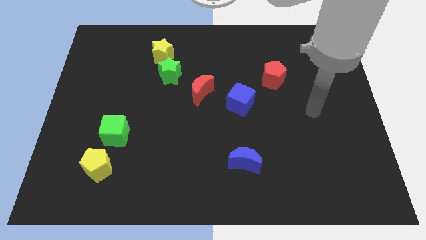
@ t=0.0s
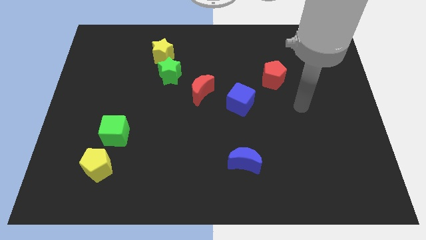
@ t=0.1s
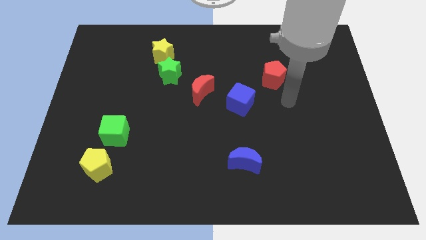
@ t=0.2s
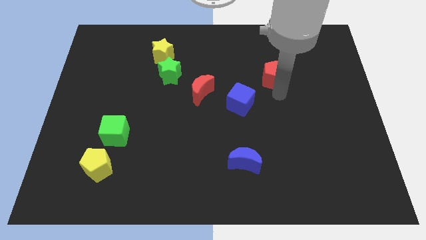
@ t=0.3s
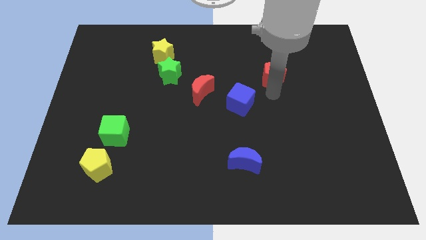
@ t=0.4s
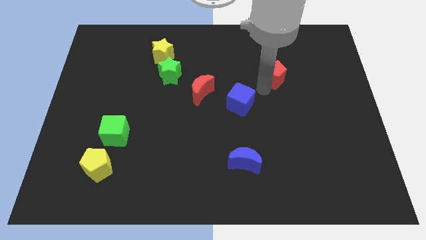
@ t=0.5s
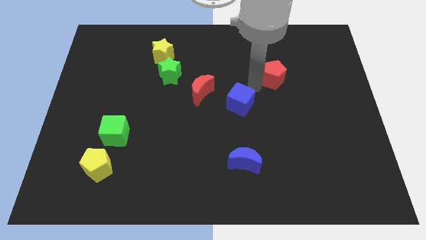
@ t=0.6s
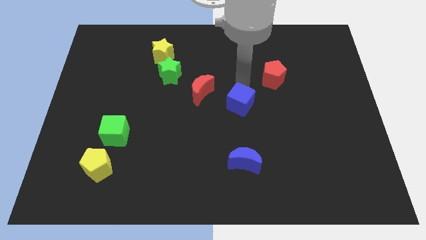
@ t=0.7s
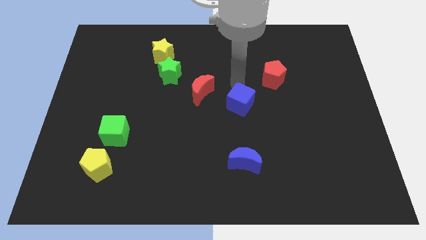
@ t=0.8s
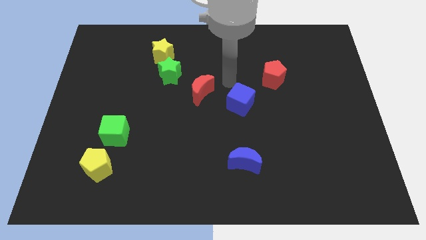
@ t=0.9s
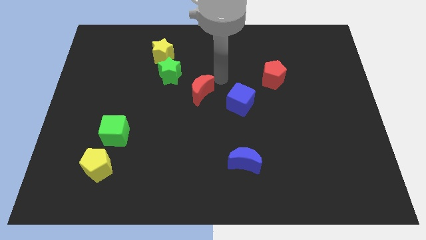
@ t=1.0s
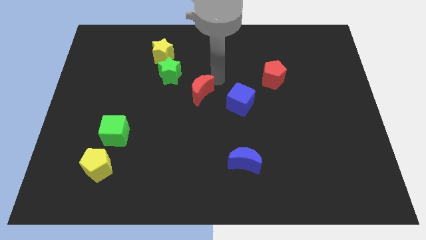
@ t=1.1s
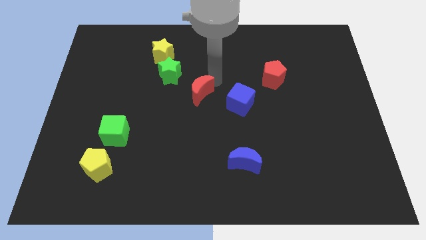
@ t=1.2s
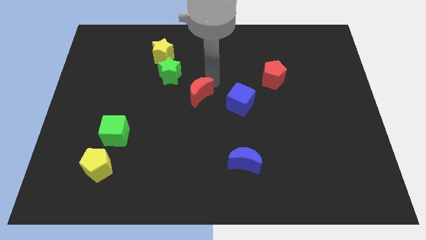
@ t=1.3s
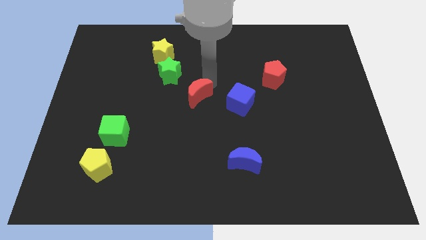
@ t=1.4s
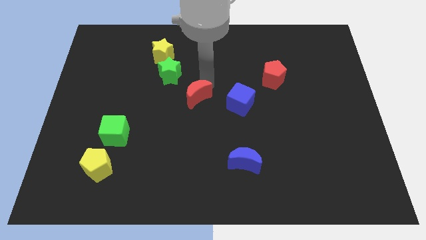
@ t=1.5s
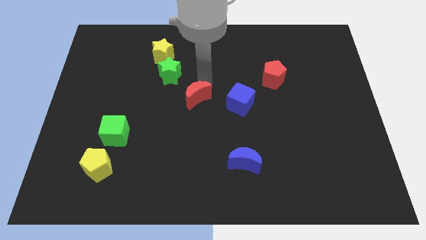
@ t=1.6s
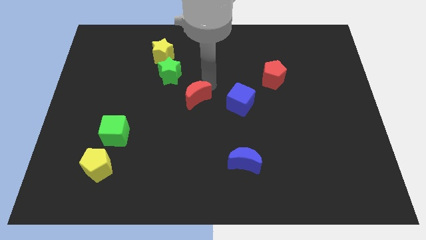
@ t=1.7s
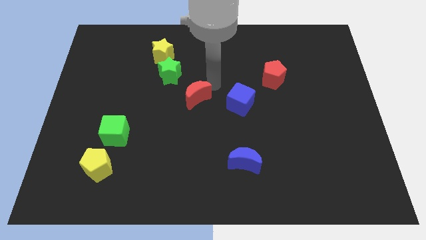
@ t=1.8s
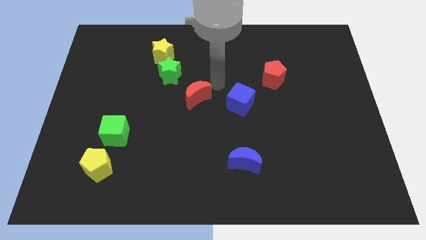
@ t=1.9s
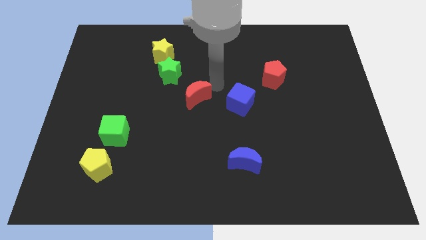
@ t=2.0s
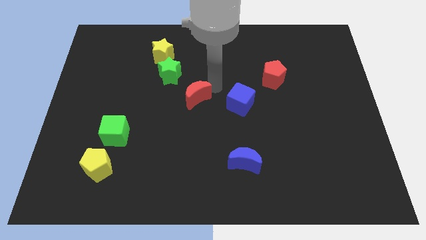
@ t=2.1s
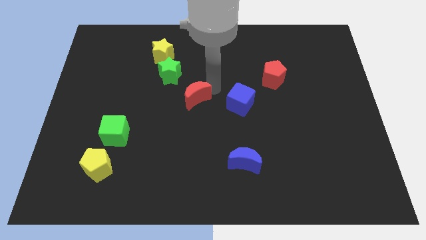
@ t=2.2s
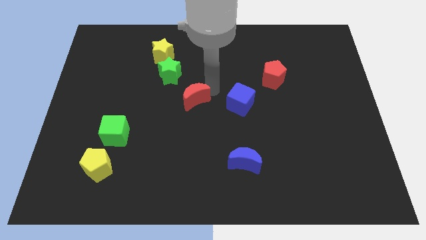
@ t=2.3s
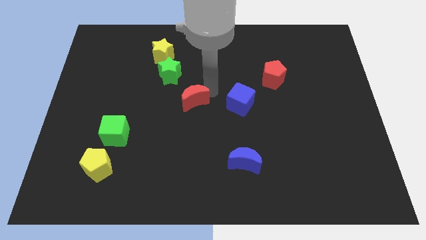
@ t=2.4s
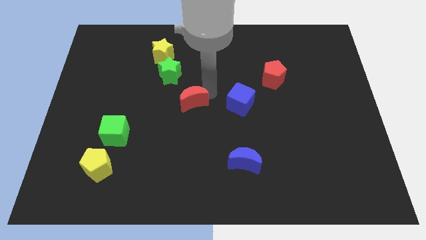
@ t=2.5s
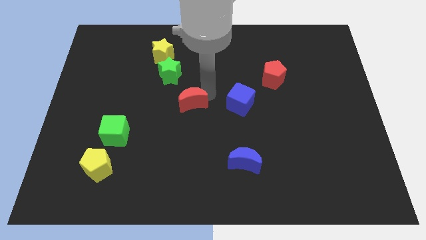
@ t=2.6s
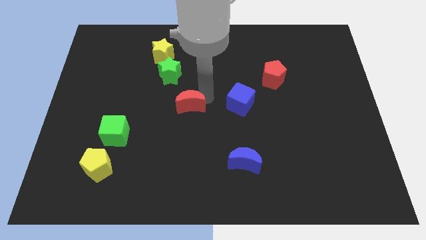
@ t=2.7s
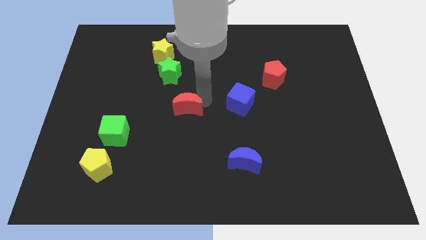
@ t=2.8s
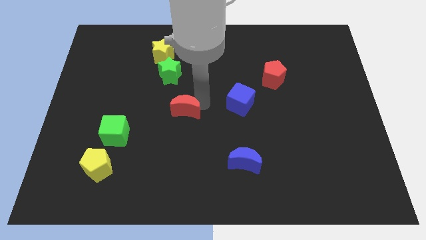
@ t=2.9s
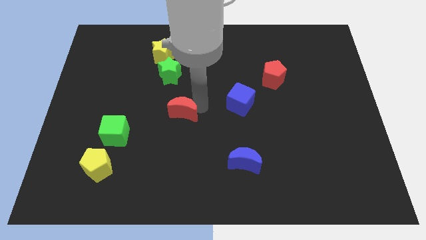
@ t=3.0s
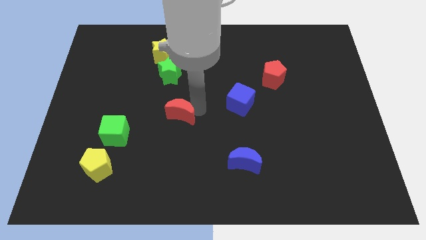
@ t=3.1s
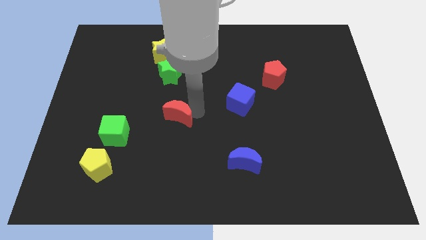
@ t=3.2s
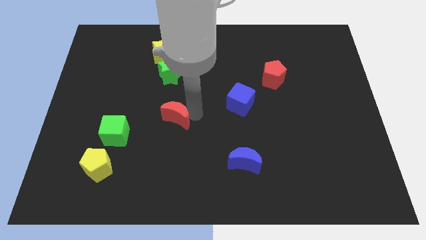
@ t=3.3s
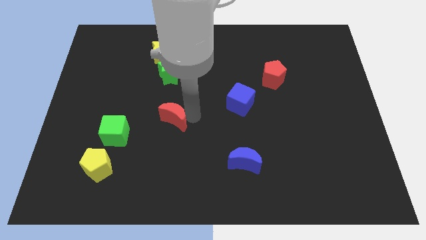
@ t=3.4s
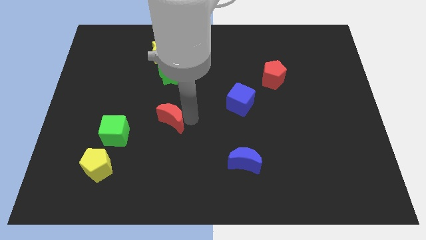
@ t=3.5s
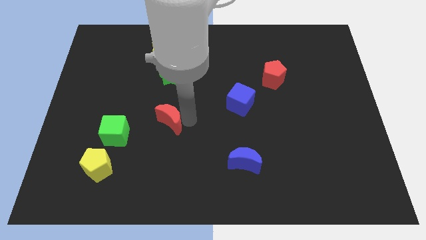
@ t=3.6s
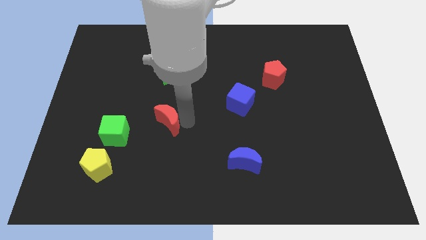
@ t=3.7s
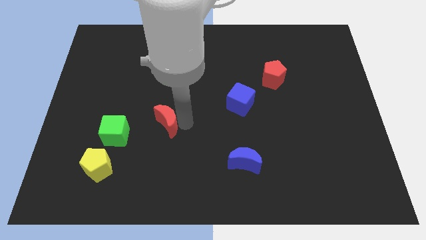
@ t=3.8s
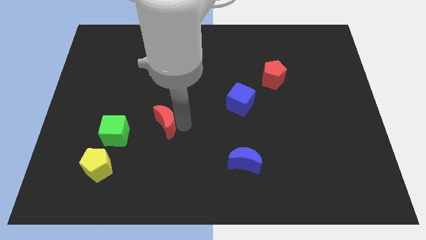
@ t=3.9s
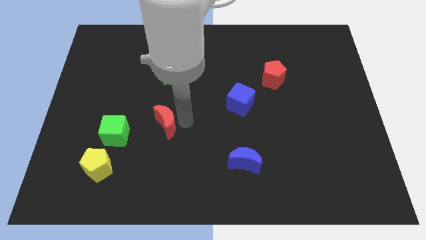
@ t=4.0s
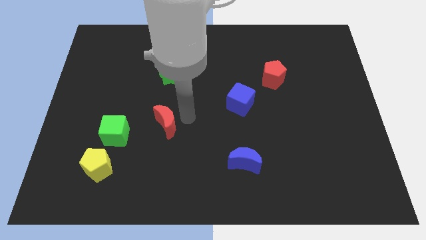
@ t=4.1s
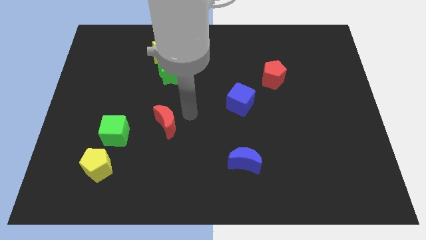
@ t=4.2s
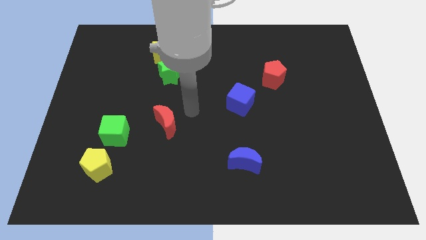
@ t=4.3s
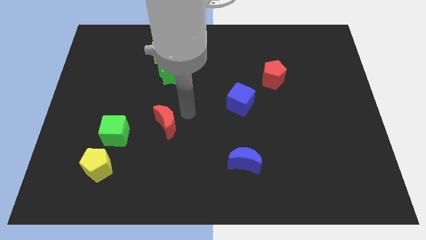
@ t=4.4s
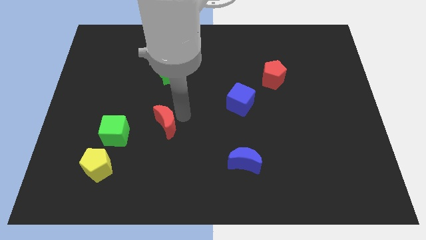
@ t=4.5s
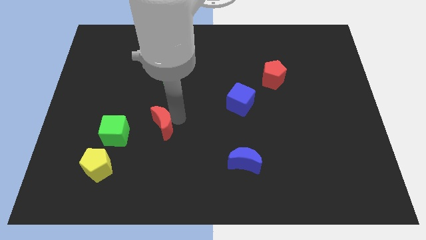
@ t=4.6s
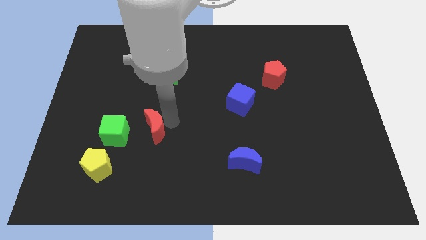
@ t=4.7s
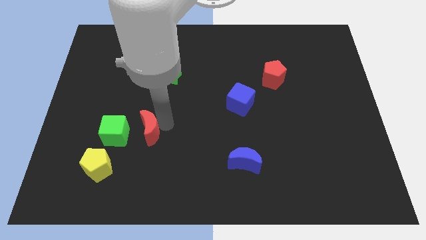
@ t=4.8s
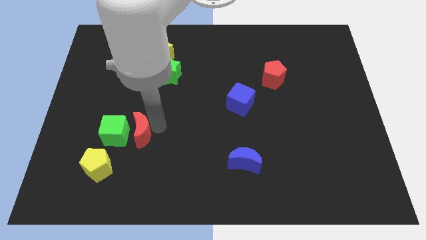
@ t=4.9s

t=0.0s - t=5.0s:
move the red moon to the top right of the yellow pentagon

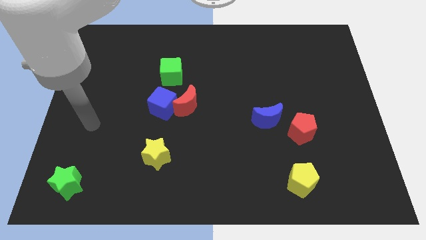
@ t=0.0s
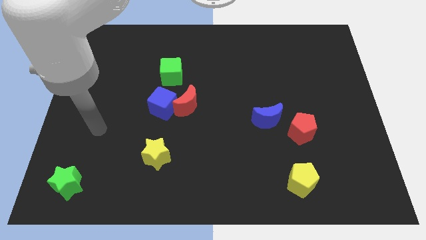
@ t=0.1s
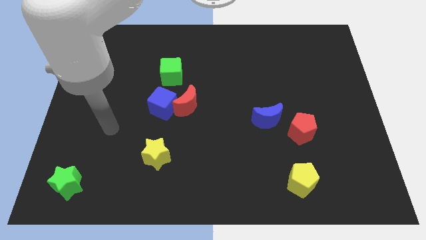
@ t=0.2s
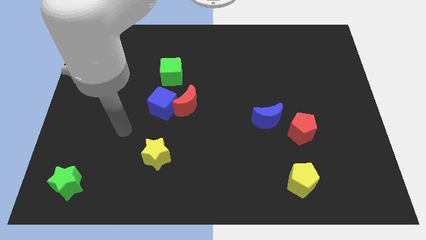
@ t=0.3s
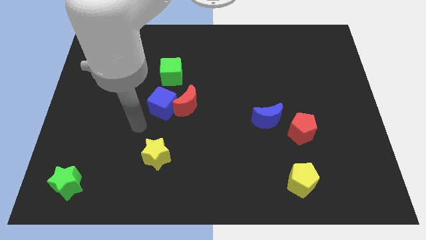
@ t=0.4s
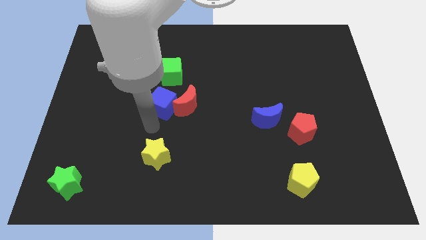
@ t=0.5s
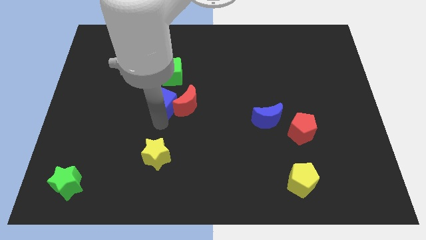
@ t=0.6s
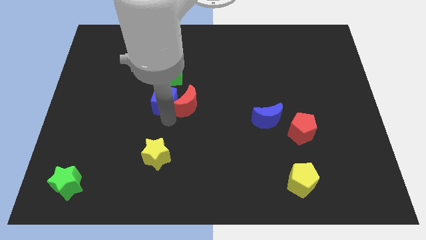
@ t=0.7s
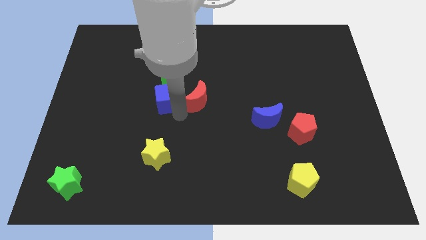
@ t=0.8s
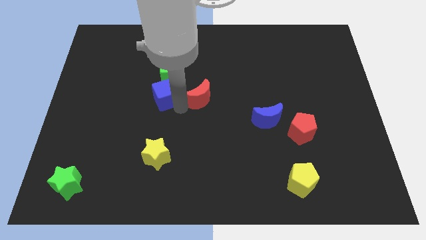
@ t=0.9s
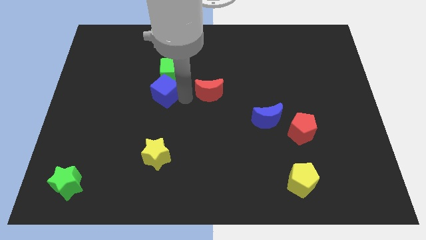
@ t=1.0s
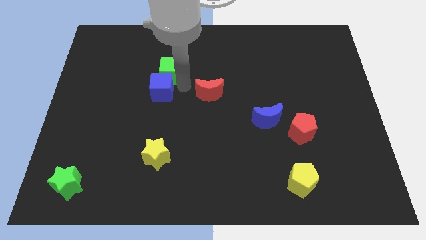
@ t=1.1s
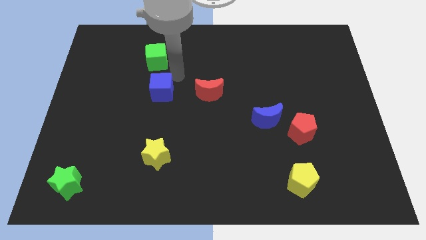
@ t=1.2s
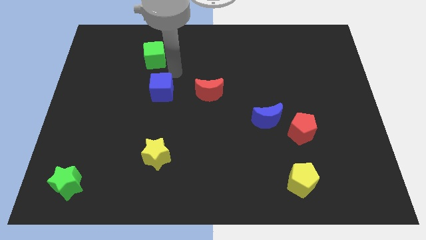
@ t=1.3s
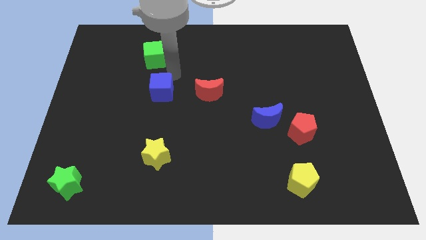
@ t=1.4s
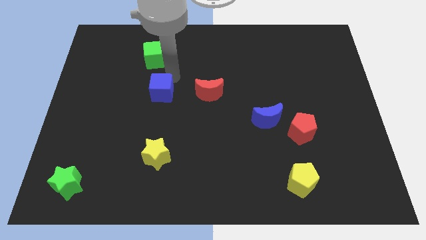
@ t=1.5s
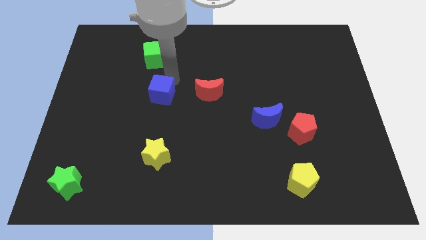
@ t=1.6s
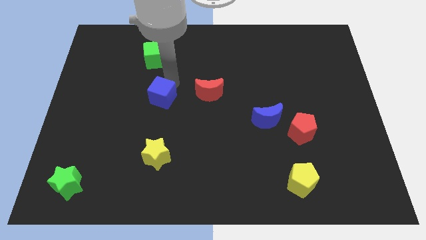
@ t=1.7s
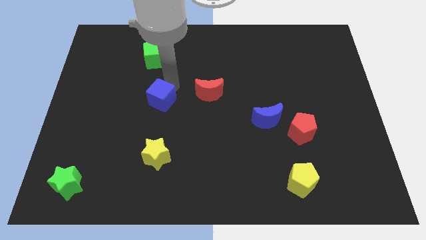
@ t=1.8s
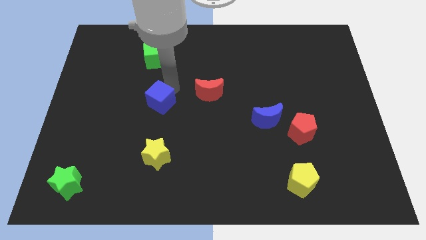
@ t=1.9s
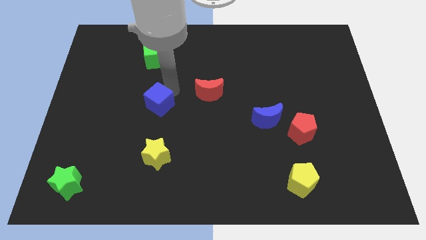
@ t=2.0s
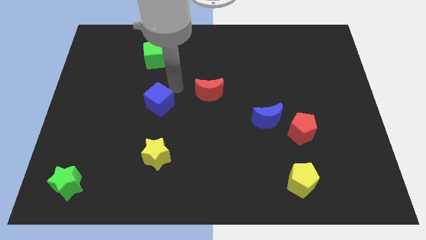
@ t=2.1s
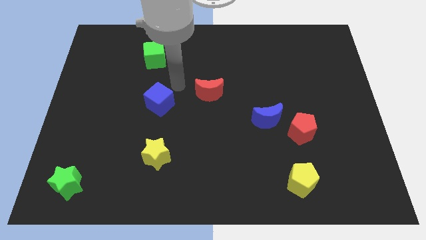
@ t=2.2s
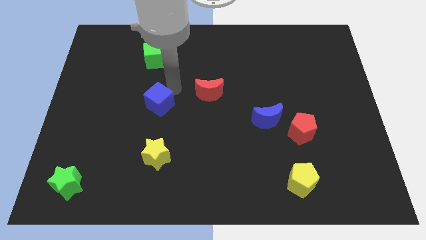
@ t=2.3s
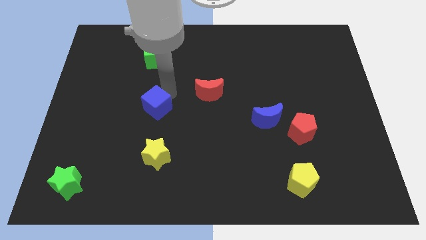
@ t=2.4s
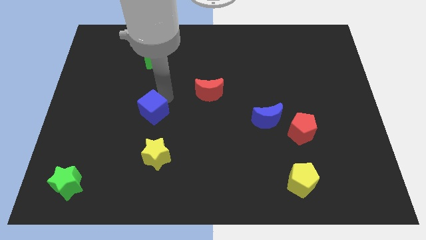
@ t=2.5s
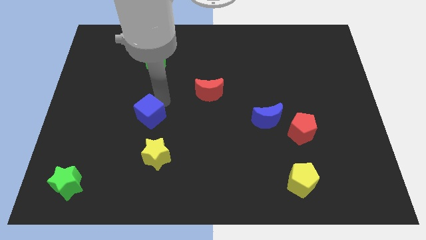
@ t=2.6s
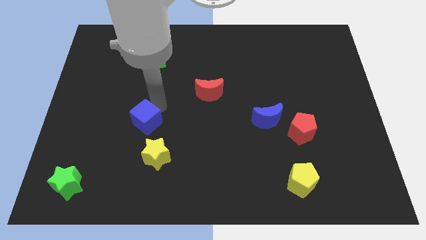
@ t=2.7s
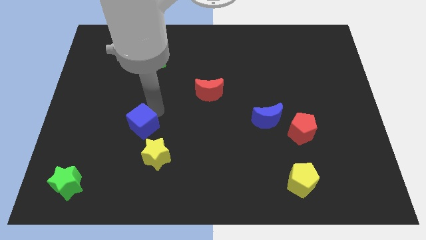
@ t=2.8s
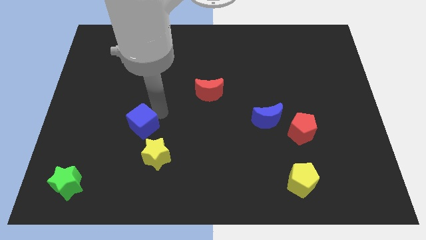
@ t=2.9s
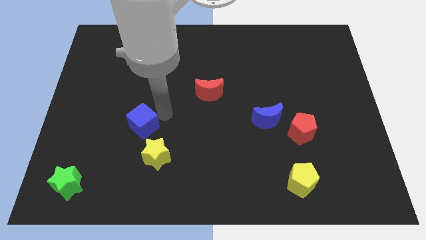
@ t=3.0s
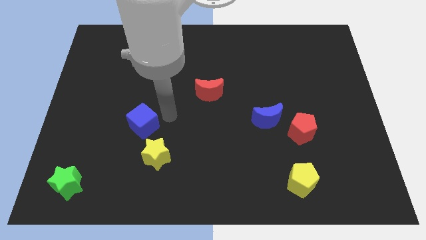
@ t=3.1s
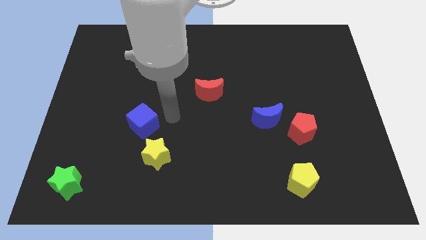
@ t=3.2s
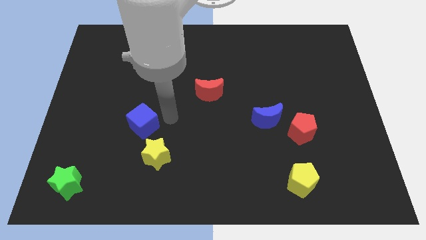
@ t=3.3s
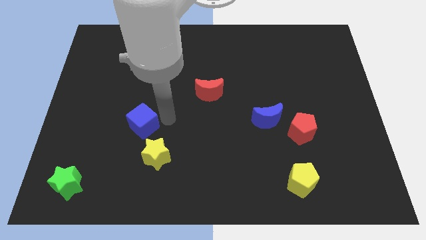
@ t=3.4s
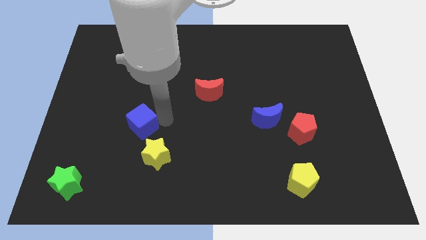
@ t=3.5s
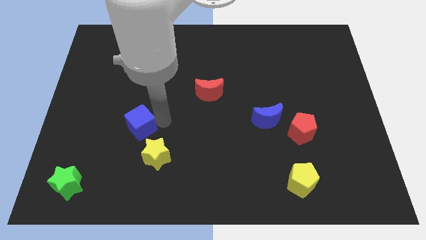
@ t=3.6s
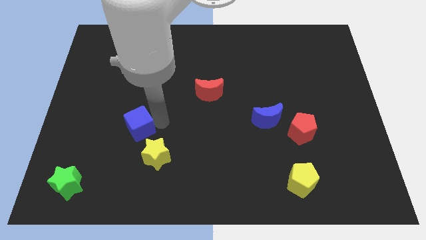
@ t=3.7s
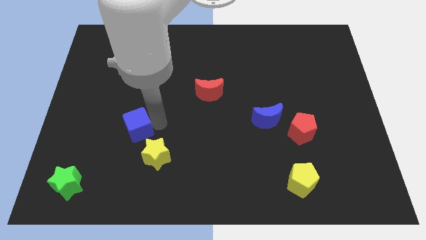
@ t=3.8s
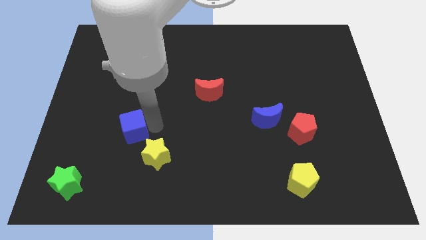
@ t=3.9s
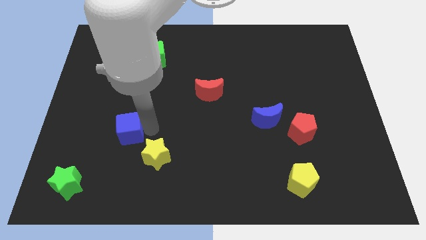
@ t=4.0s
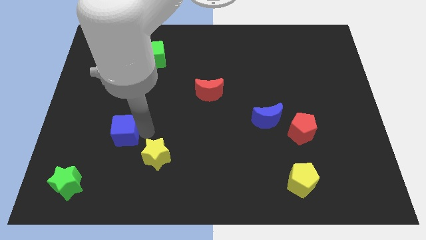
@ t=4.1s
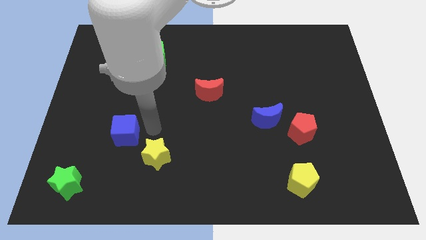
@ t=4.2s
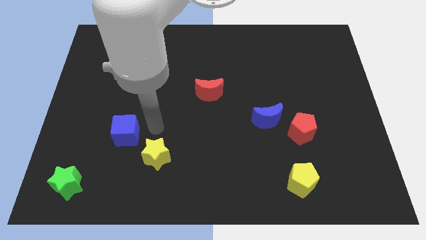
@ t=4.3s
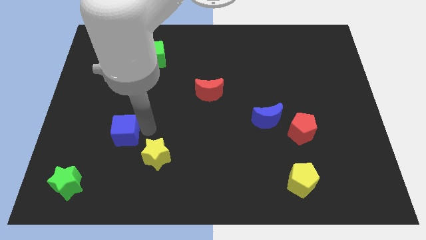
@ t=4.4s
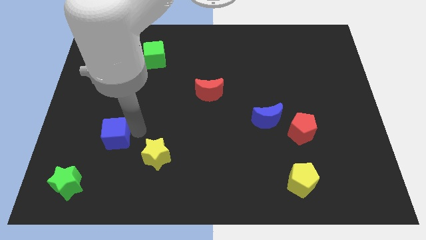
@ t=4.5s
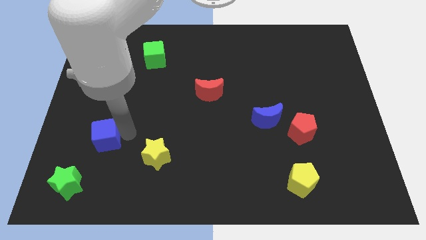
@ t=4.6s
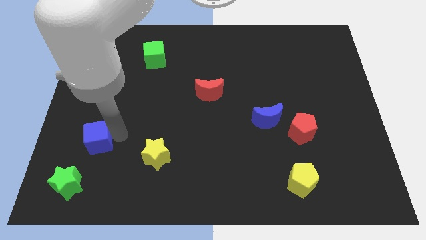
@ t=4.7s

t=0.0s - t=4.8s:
put the blue cube above the green star
